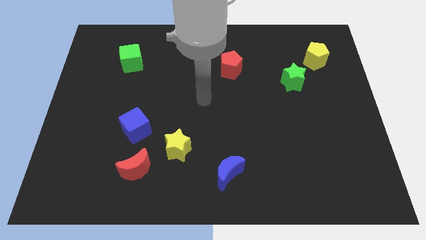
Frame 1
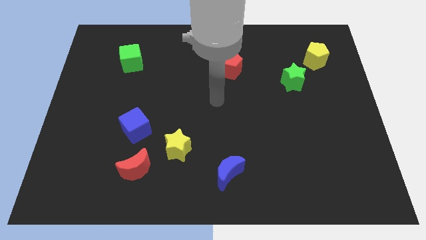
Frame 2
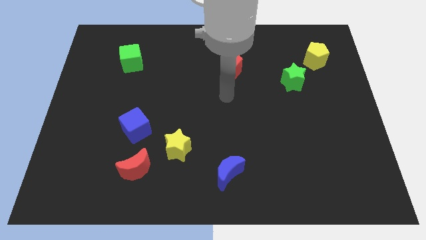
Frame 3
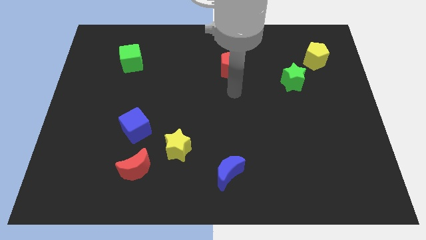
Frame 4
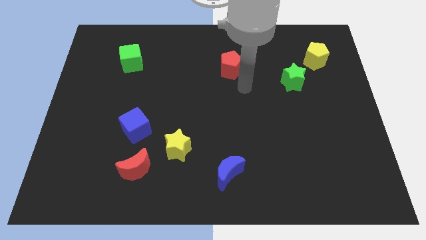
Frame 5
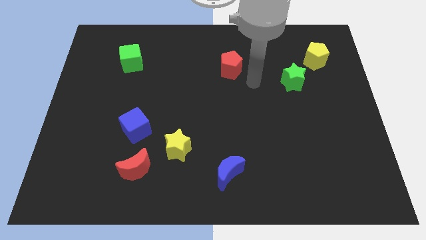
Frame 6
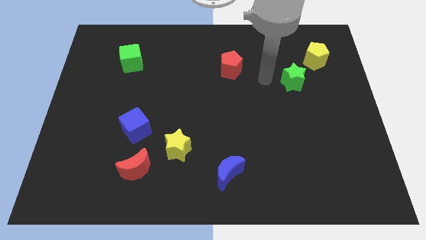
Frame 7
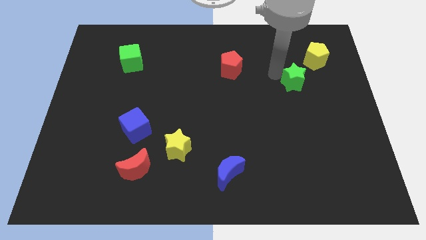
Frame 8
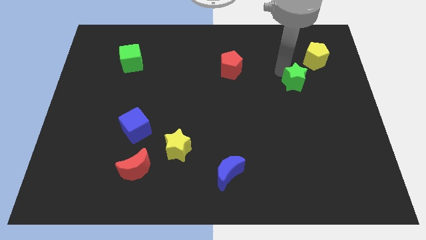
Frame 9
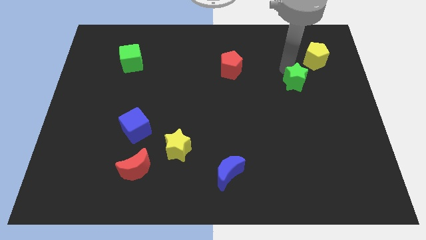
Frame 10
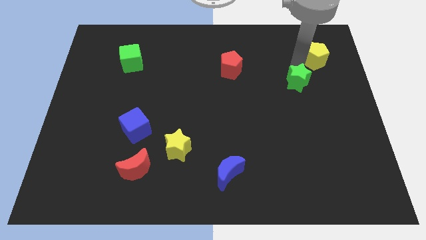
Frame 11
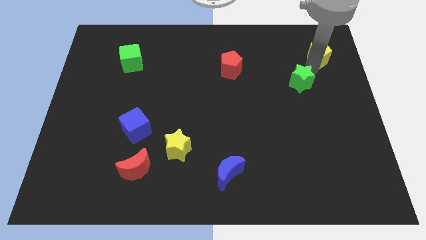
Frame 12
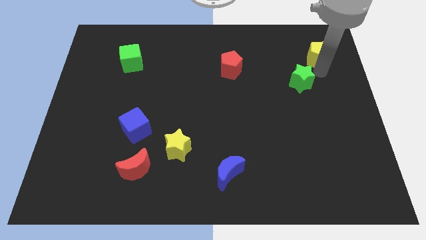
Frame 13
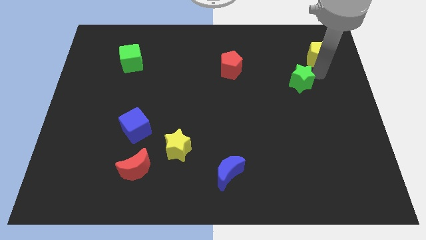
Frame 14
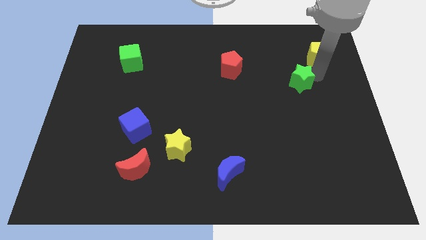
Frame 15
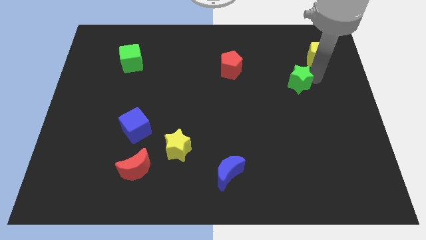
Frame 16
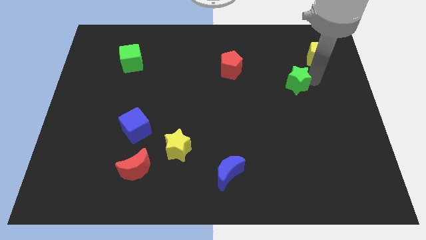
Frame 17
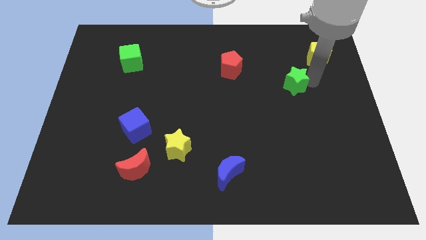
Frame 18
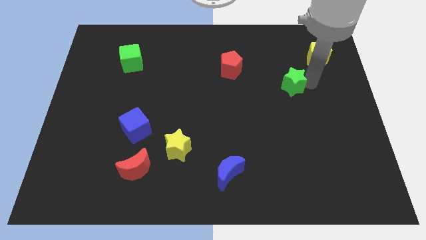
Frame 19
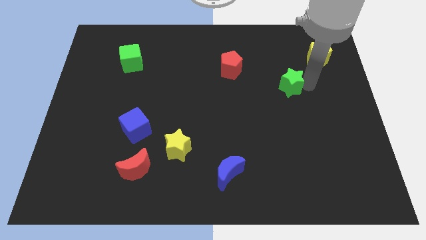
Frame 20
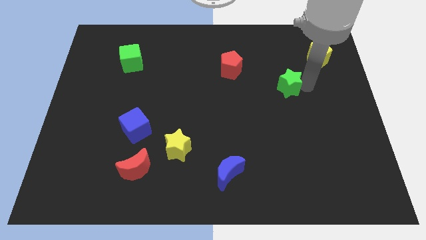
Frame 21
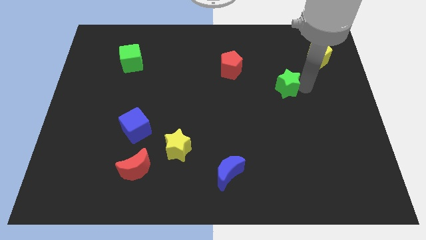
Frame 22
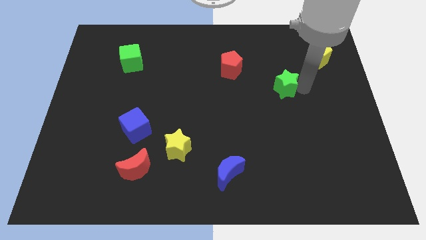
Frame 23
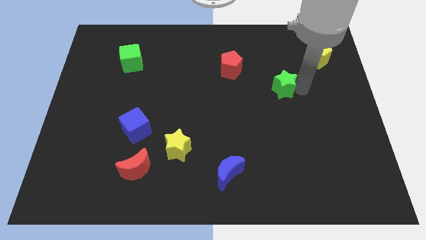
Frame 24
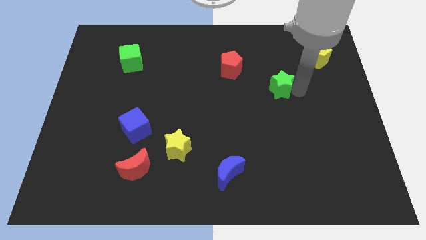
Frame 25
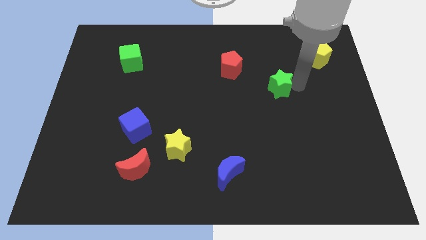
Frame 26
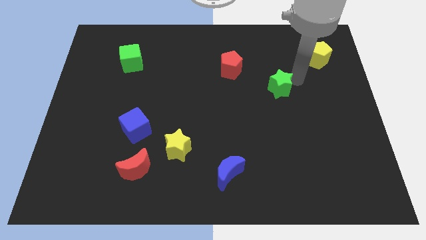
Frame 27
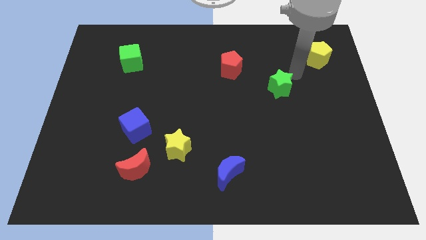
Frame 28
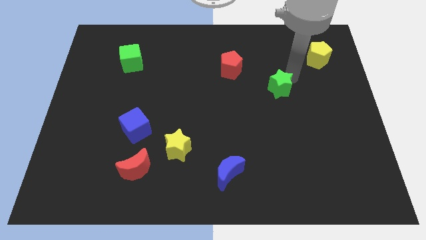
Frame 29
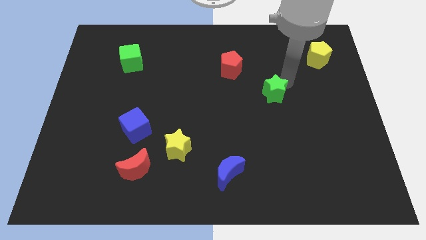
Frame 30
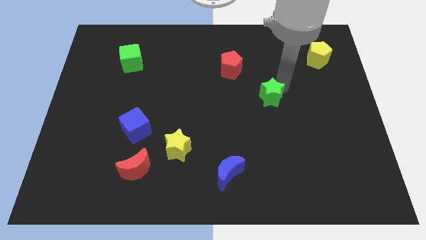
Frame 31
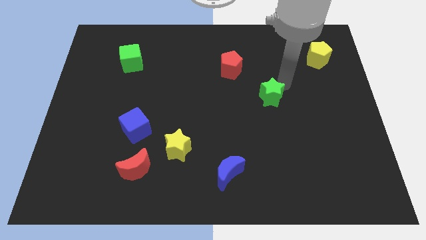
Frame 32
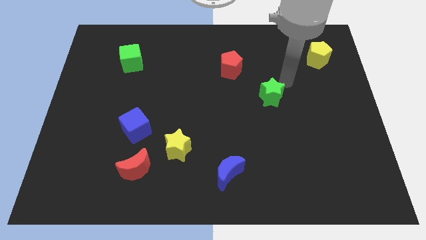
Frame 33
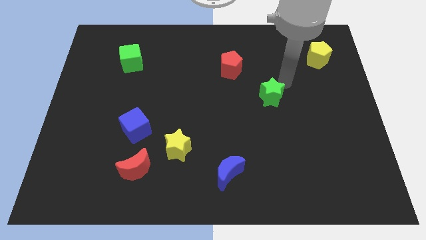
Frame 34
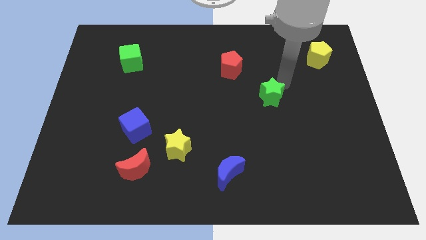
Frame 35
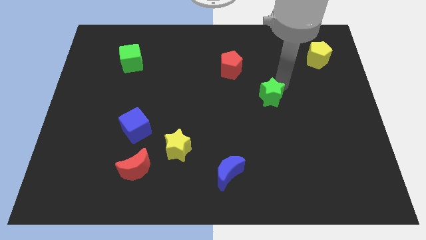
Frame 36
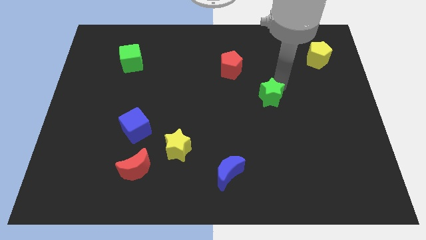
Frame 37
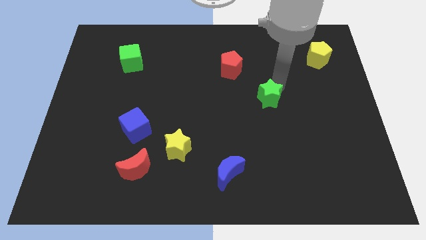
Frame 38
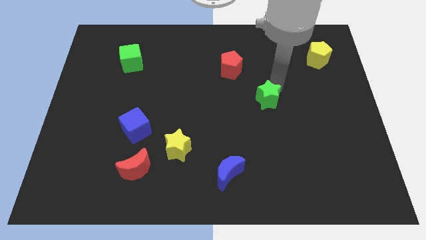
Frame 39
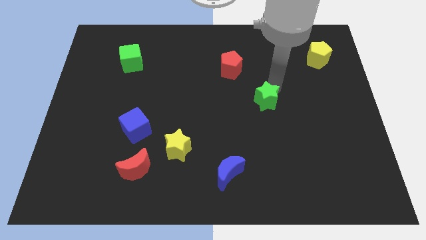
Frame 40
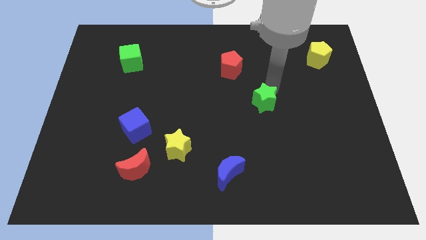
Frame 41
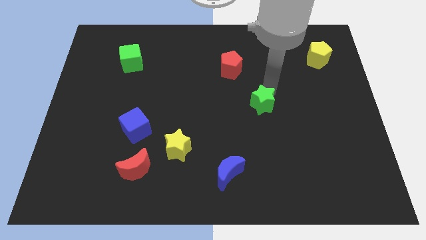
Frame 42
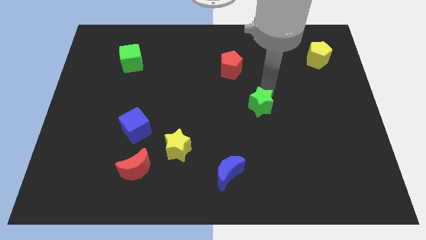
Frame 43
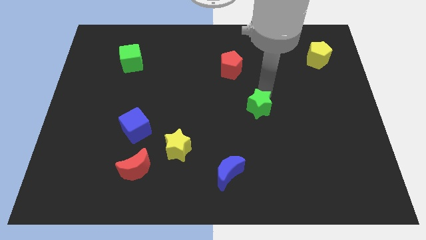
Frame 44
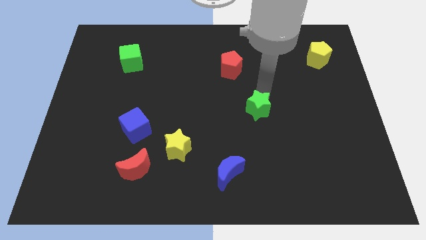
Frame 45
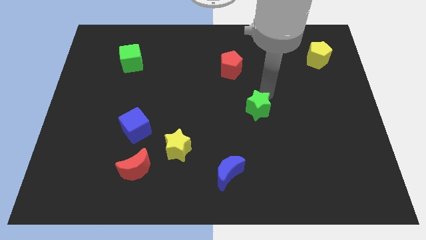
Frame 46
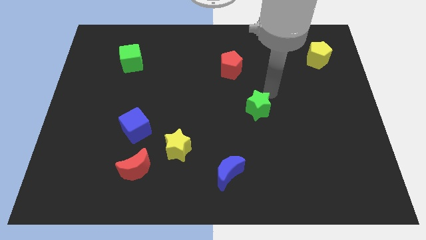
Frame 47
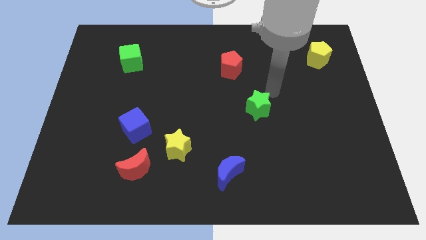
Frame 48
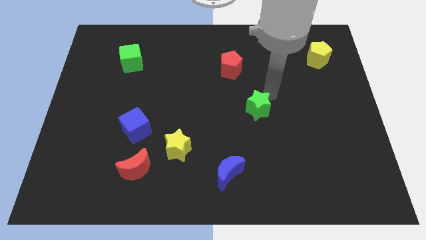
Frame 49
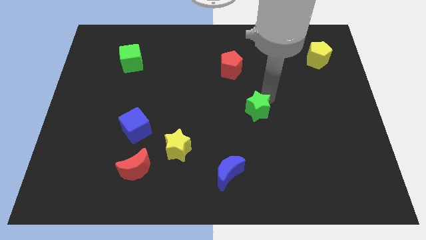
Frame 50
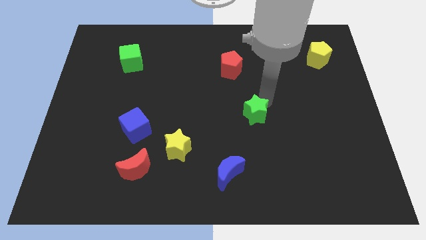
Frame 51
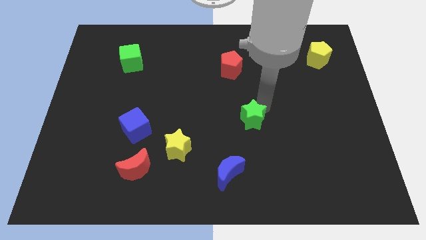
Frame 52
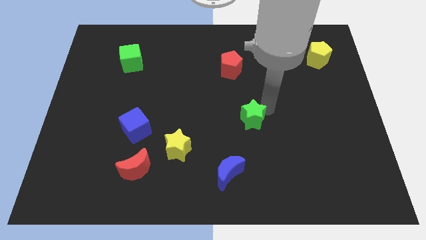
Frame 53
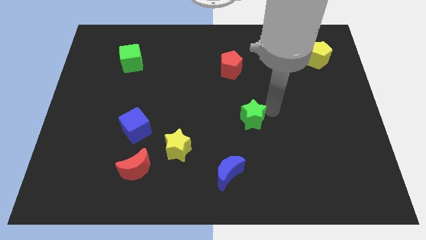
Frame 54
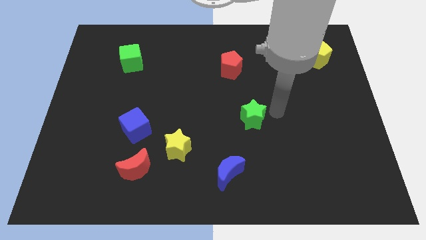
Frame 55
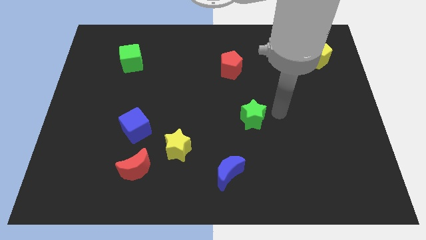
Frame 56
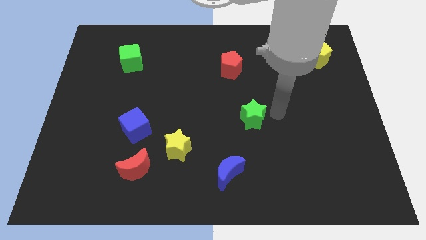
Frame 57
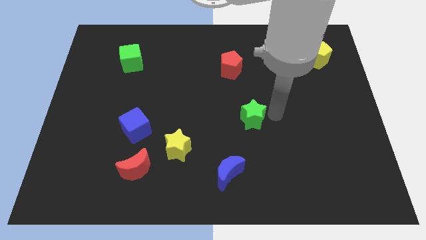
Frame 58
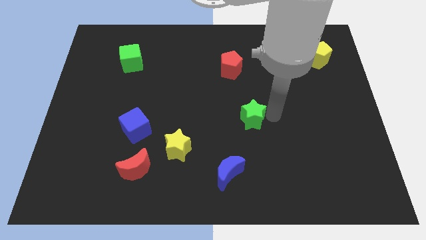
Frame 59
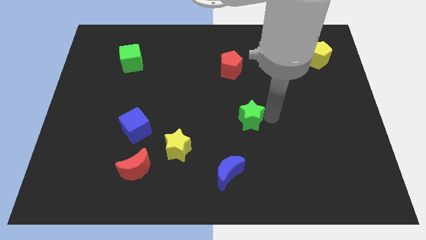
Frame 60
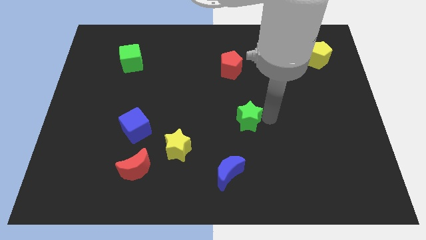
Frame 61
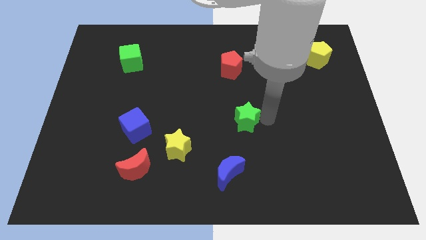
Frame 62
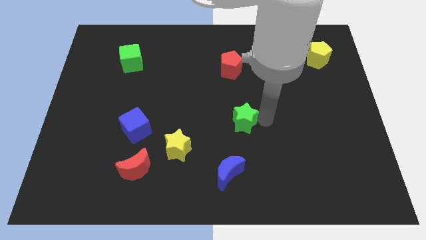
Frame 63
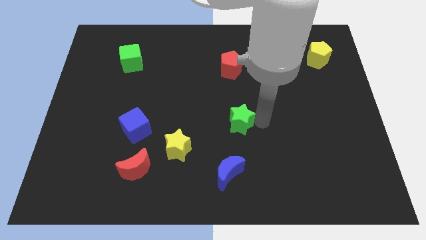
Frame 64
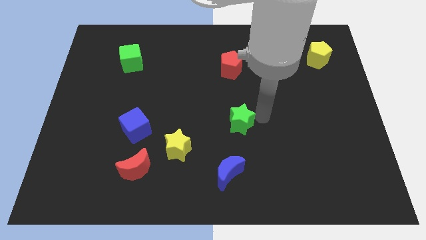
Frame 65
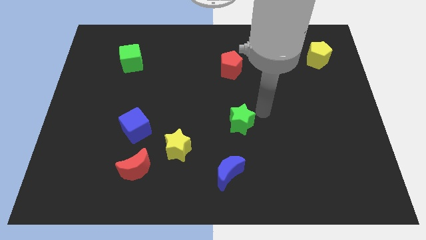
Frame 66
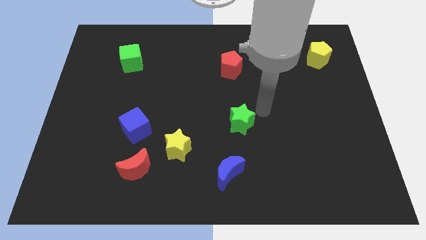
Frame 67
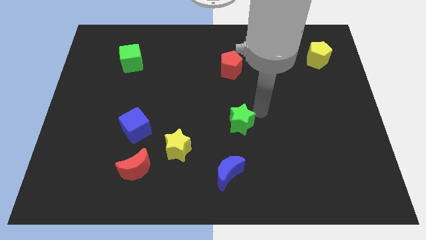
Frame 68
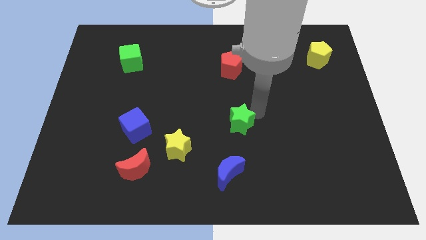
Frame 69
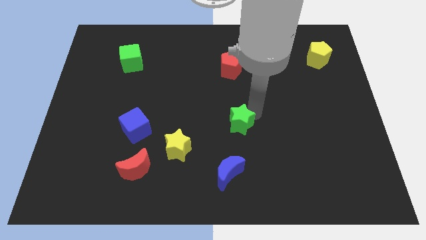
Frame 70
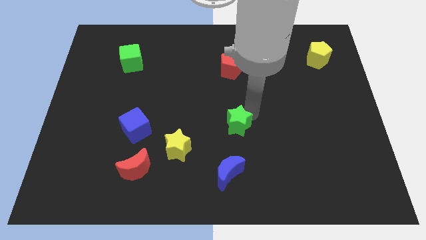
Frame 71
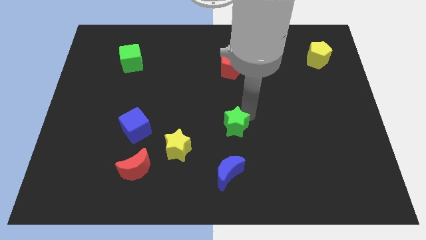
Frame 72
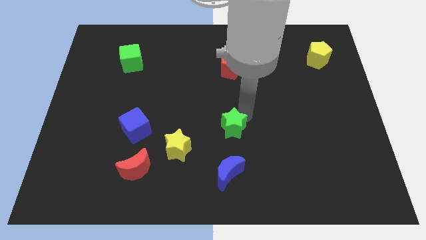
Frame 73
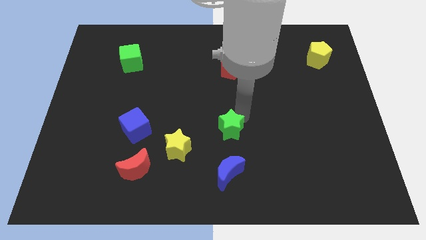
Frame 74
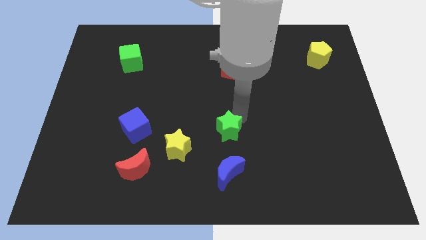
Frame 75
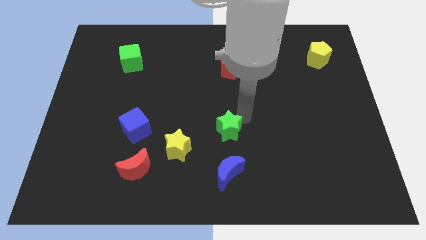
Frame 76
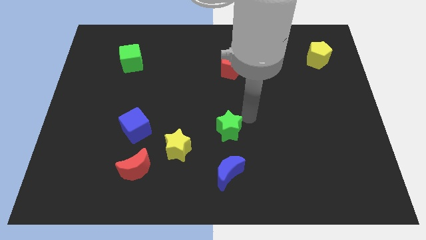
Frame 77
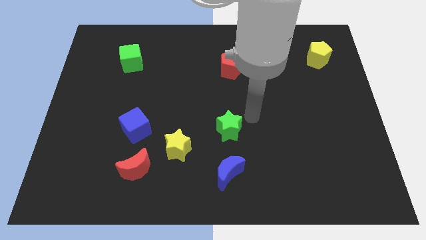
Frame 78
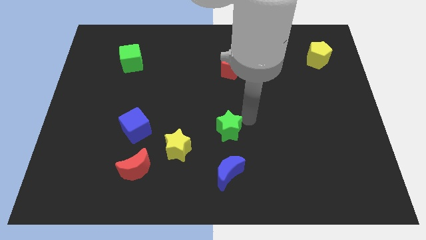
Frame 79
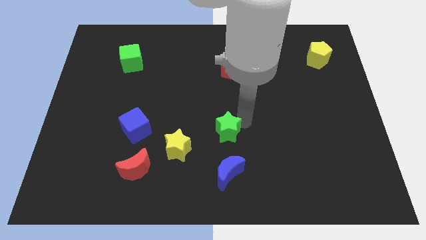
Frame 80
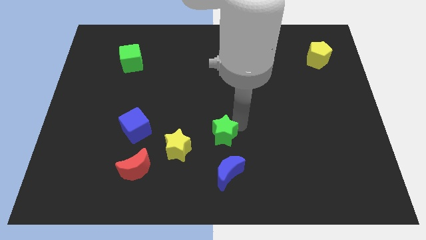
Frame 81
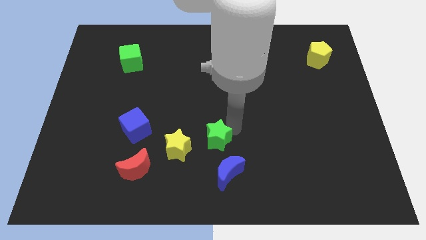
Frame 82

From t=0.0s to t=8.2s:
slide the green star to the top left of the blue moon
